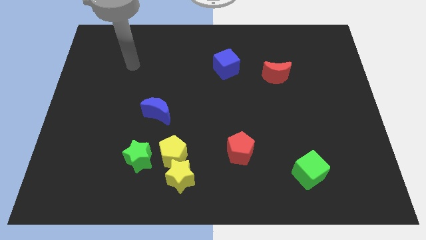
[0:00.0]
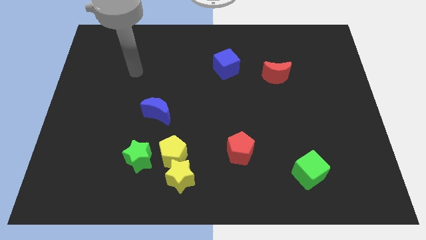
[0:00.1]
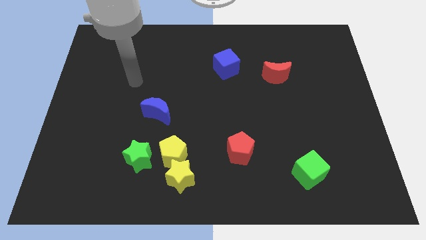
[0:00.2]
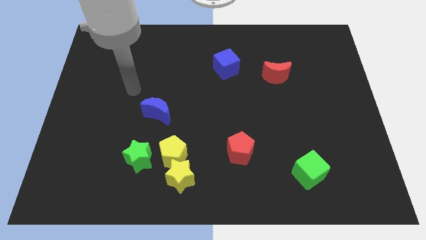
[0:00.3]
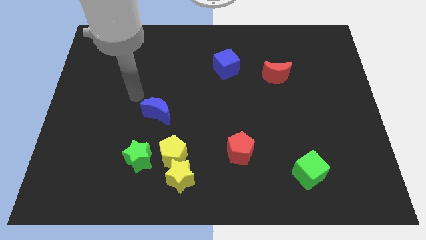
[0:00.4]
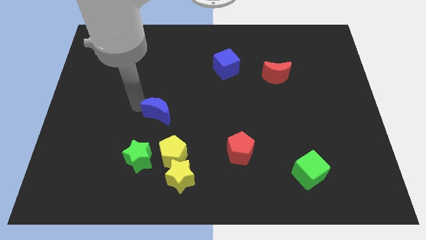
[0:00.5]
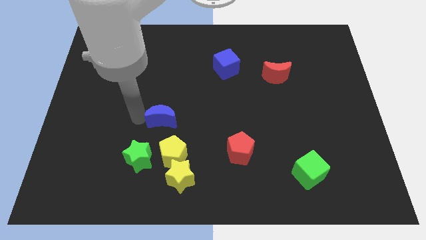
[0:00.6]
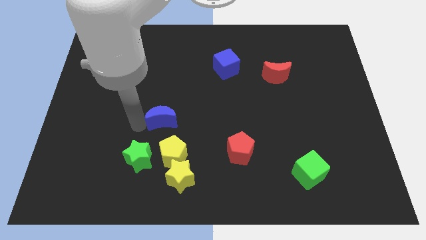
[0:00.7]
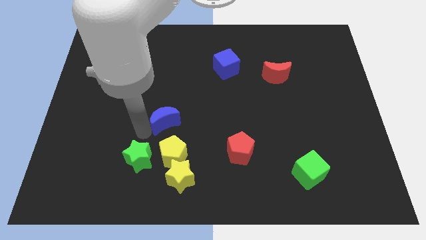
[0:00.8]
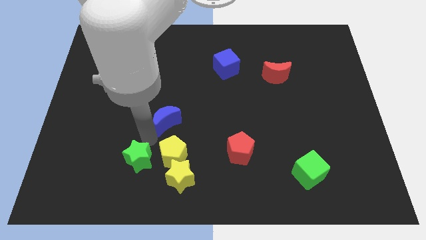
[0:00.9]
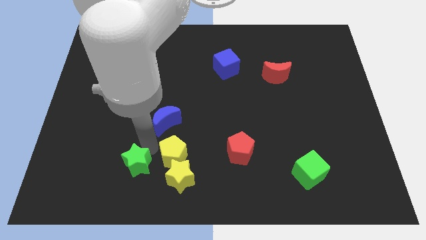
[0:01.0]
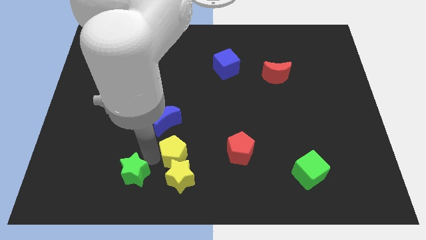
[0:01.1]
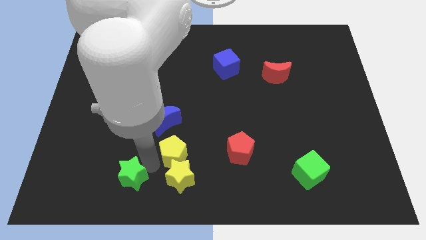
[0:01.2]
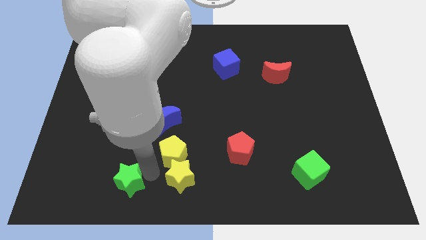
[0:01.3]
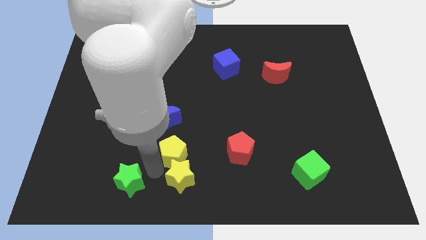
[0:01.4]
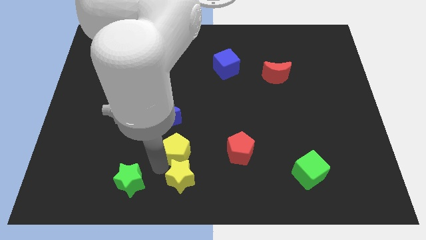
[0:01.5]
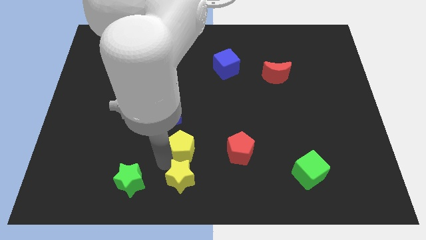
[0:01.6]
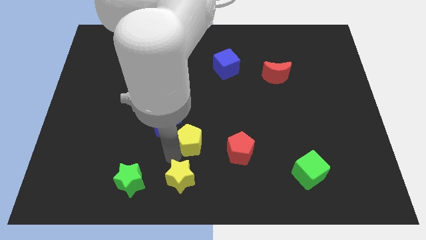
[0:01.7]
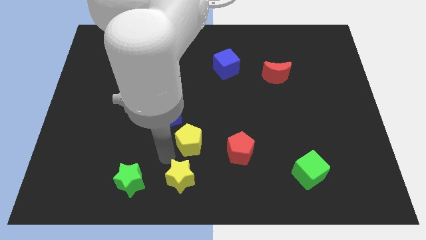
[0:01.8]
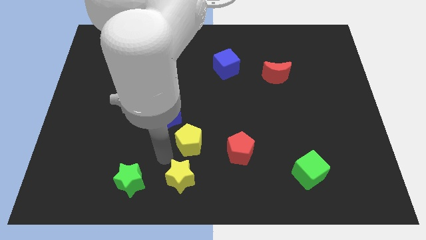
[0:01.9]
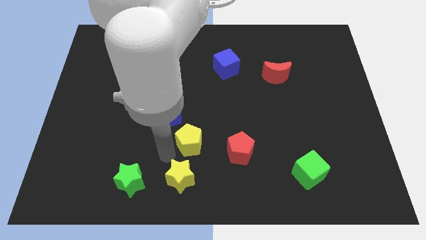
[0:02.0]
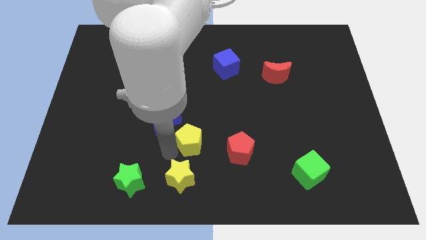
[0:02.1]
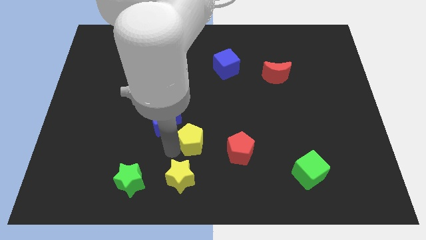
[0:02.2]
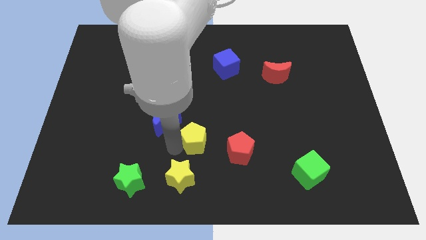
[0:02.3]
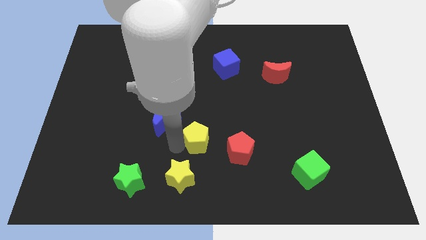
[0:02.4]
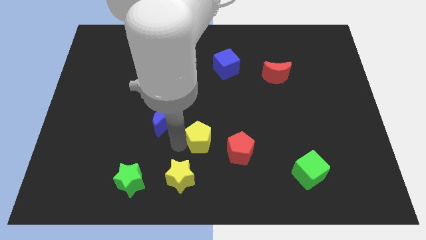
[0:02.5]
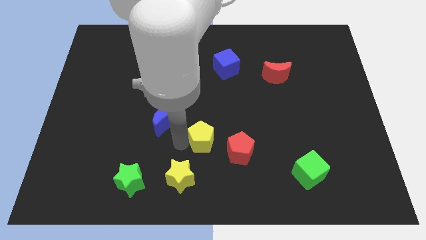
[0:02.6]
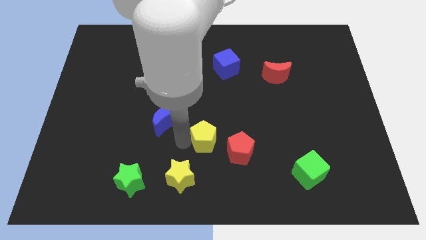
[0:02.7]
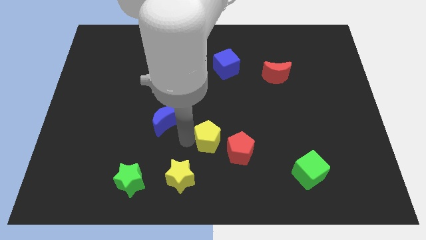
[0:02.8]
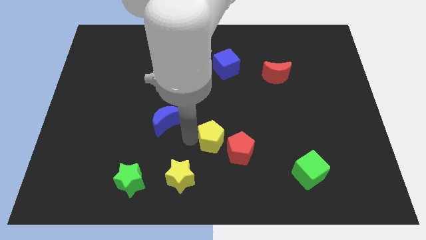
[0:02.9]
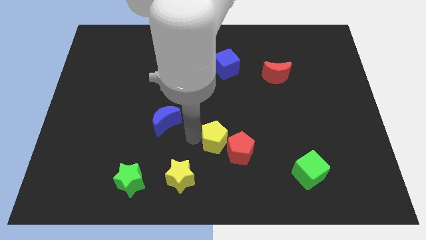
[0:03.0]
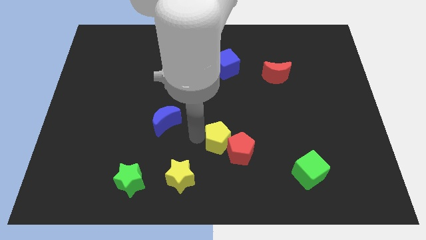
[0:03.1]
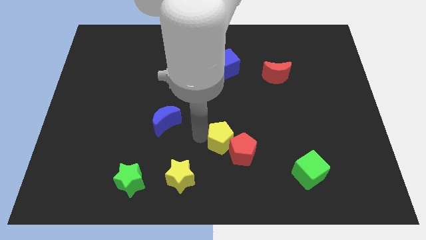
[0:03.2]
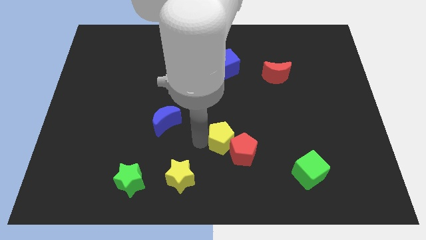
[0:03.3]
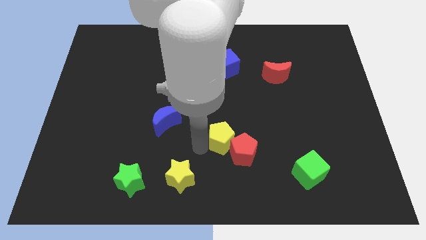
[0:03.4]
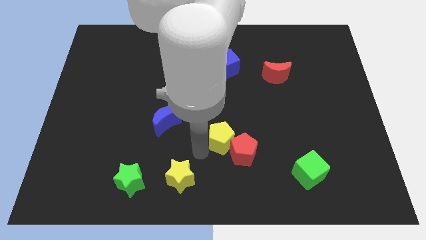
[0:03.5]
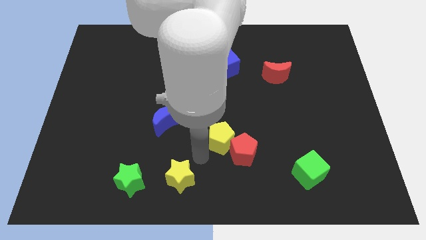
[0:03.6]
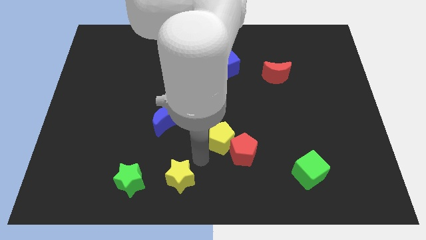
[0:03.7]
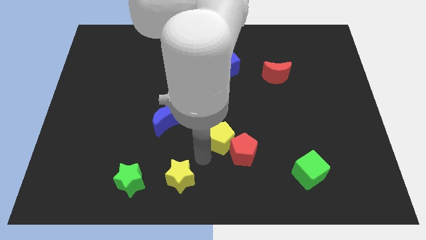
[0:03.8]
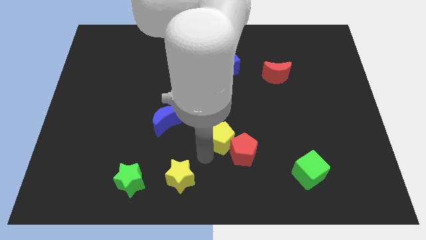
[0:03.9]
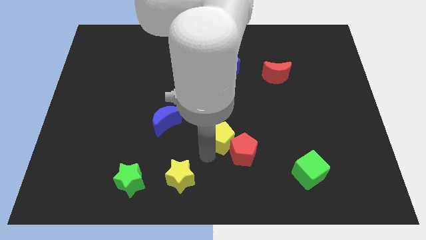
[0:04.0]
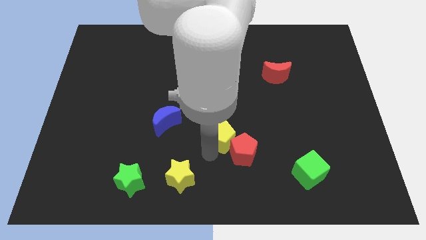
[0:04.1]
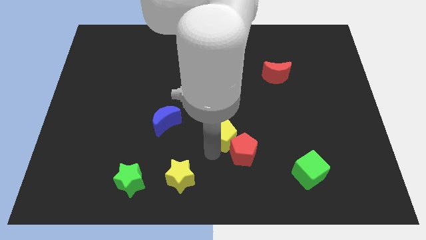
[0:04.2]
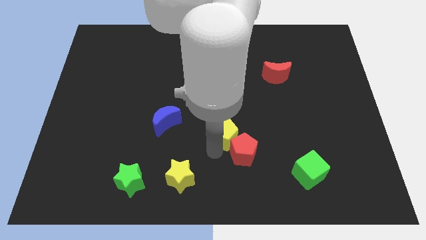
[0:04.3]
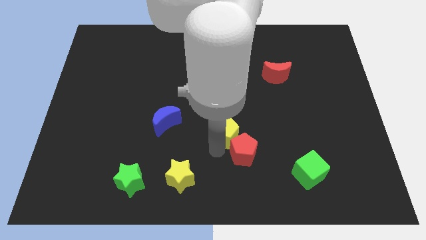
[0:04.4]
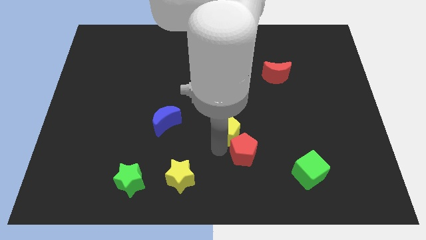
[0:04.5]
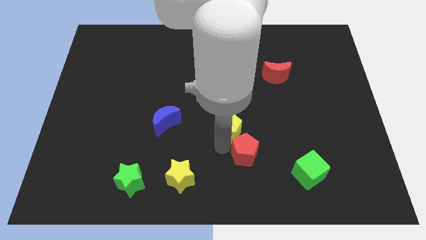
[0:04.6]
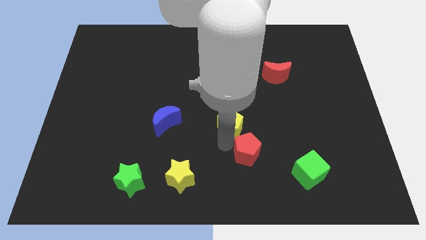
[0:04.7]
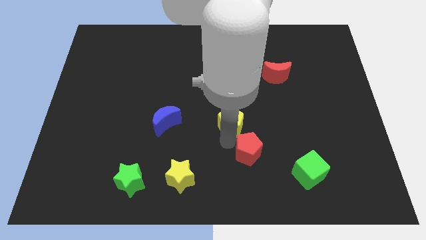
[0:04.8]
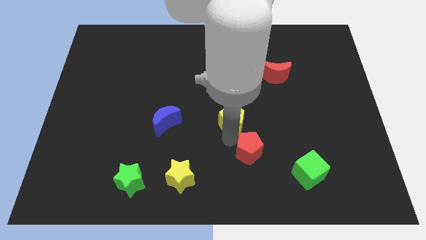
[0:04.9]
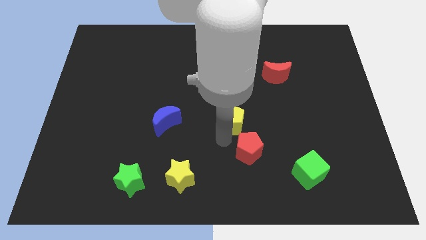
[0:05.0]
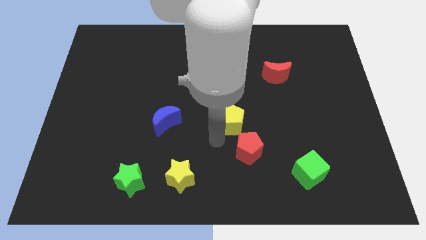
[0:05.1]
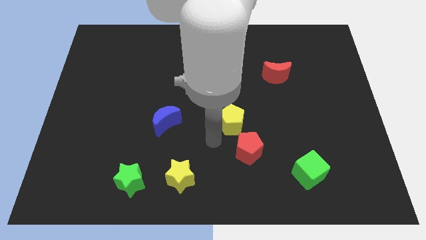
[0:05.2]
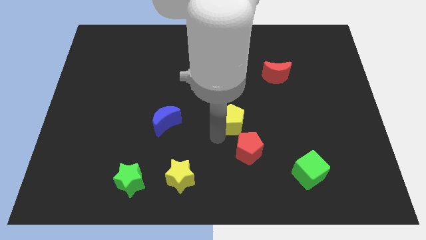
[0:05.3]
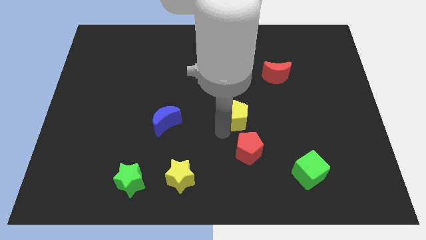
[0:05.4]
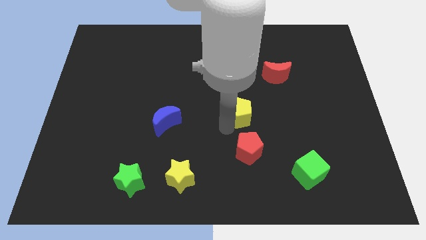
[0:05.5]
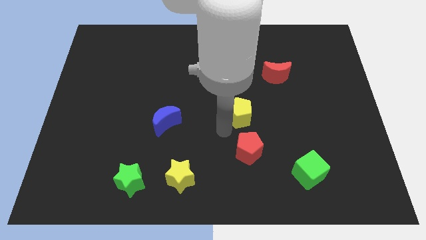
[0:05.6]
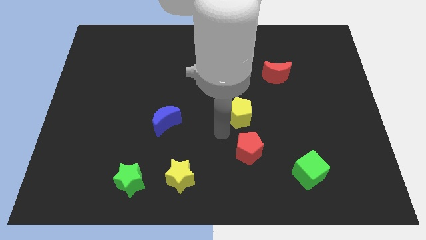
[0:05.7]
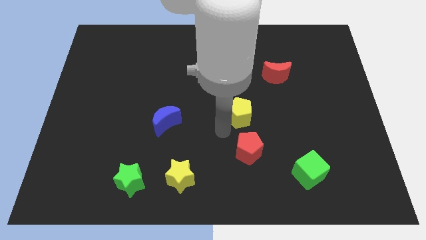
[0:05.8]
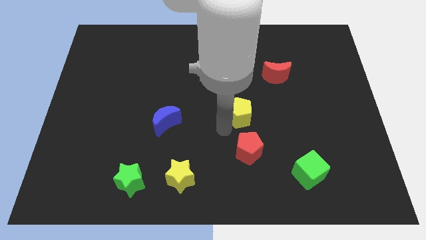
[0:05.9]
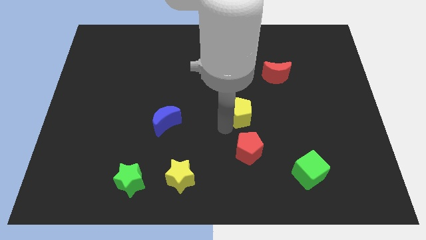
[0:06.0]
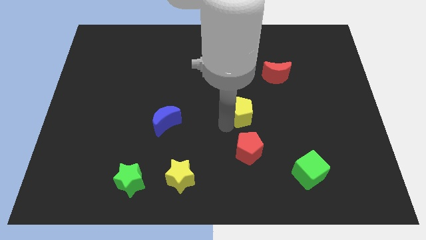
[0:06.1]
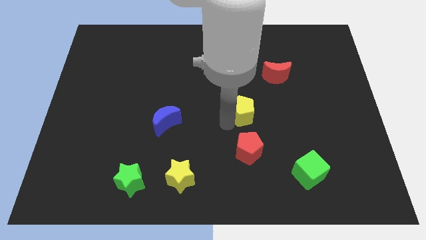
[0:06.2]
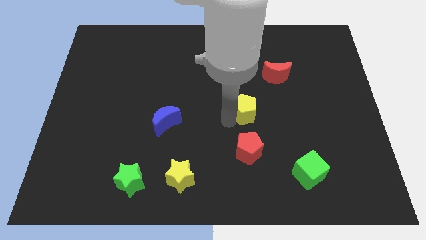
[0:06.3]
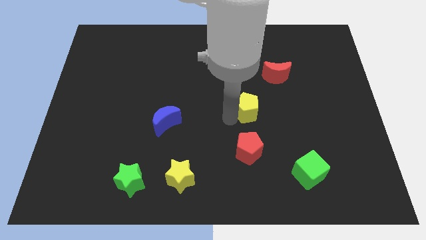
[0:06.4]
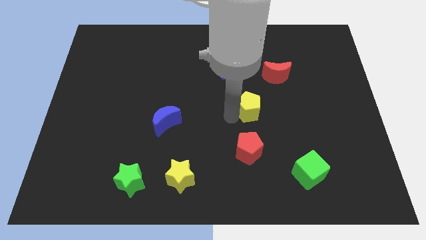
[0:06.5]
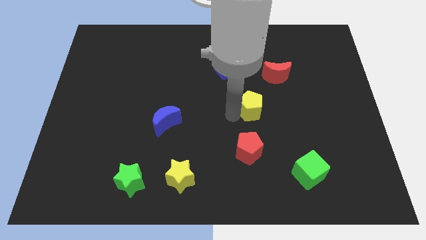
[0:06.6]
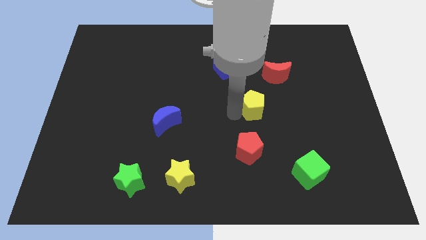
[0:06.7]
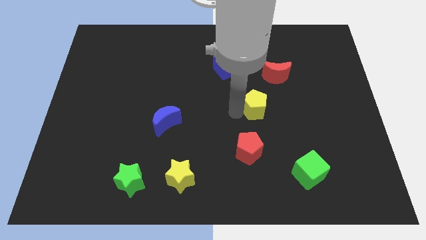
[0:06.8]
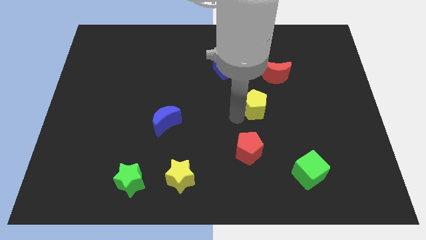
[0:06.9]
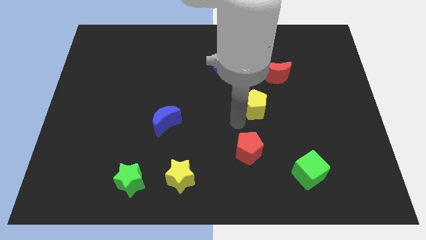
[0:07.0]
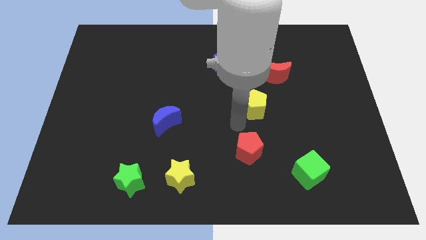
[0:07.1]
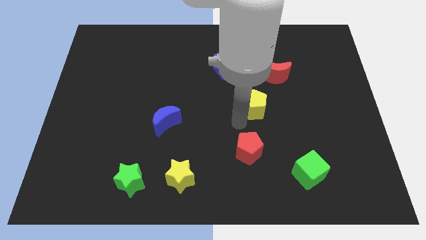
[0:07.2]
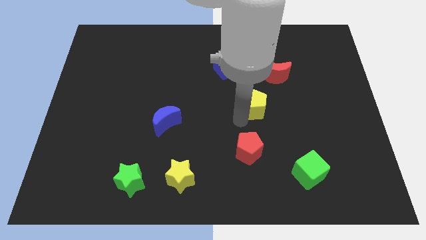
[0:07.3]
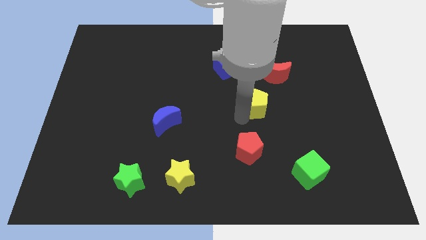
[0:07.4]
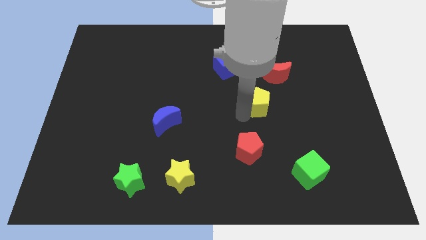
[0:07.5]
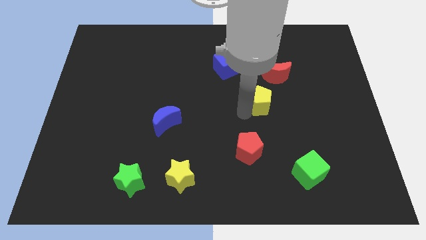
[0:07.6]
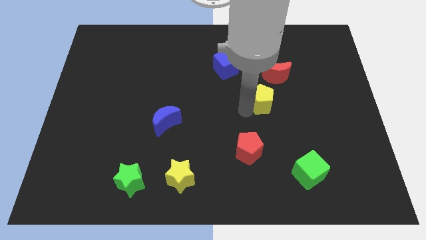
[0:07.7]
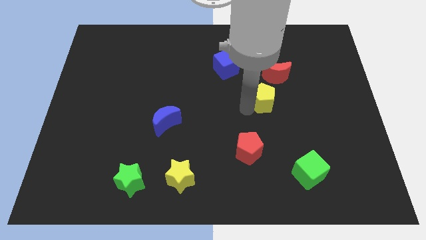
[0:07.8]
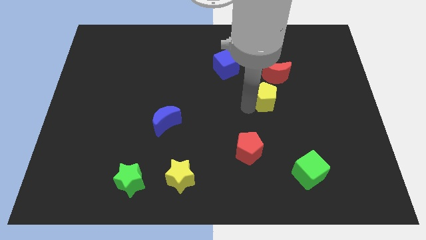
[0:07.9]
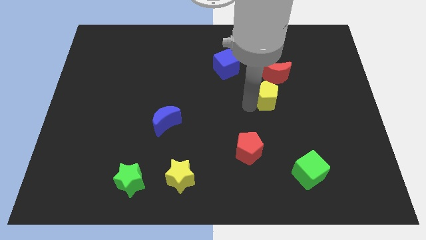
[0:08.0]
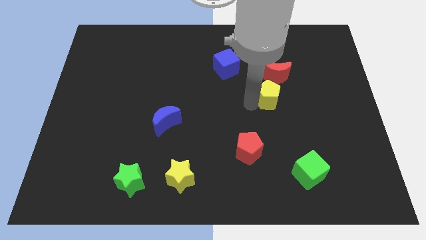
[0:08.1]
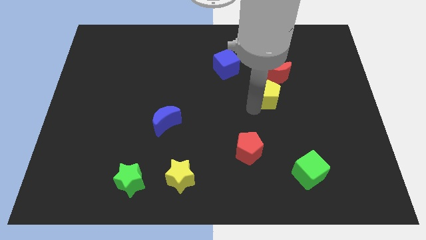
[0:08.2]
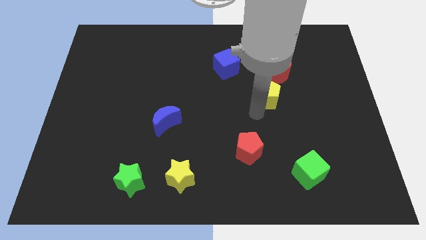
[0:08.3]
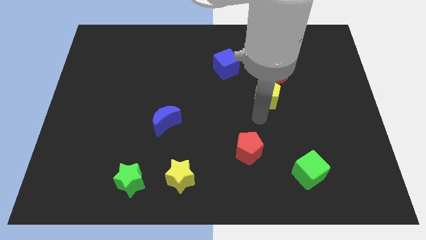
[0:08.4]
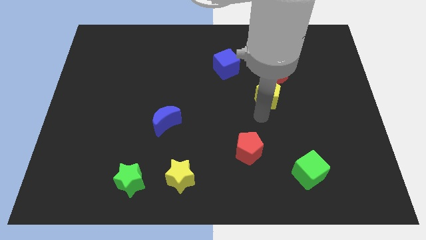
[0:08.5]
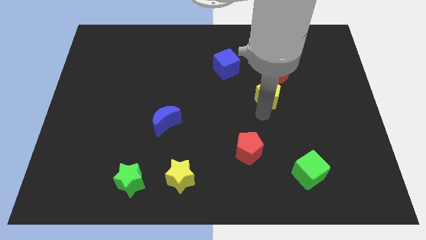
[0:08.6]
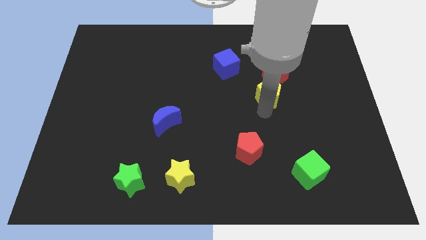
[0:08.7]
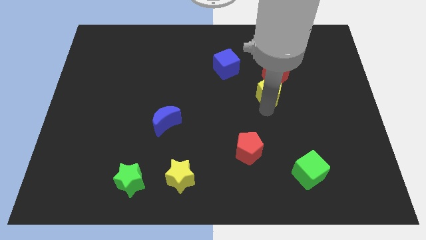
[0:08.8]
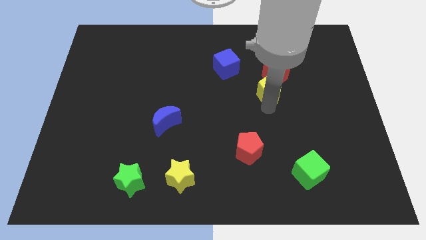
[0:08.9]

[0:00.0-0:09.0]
put the yellow pentagon towards the red moon
